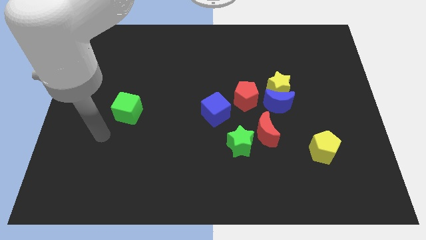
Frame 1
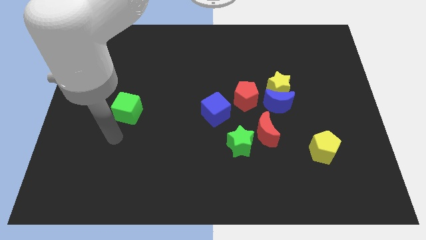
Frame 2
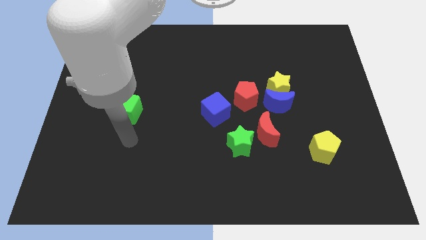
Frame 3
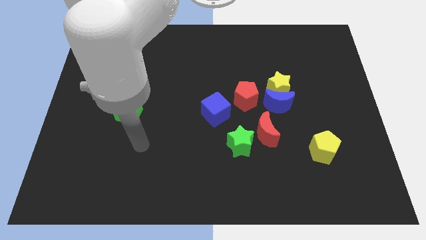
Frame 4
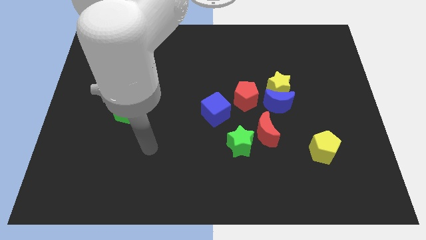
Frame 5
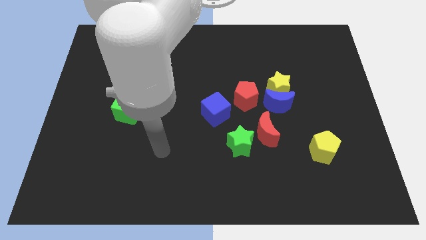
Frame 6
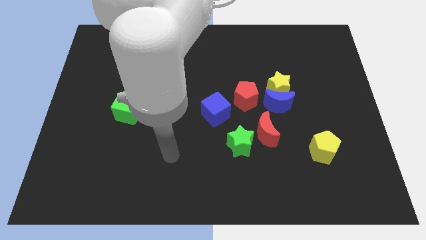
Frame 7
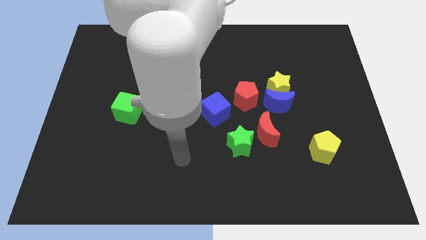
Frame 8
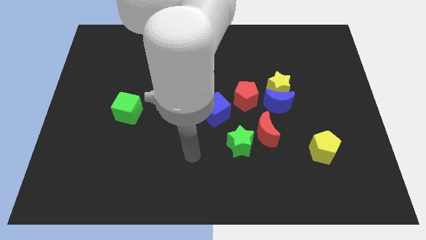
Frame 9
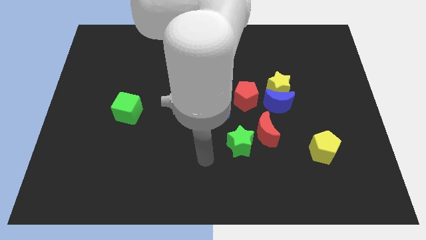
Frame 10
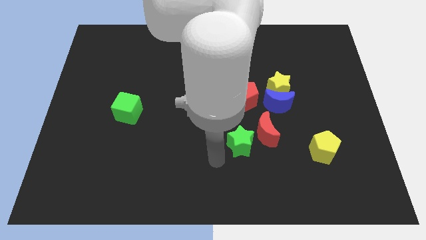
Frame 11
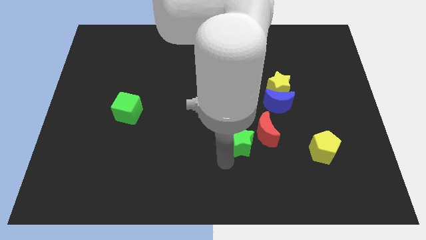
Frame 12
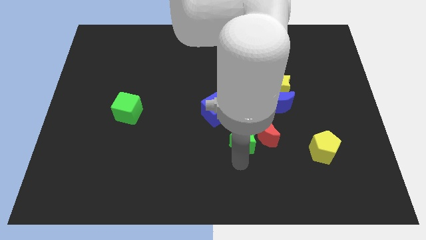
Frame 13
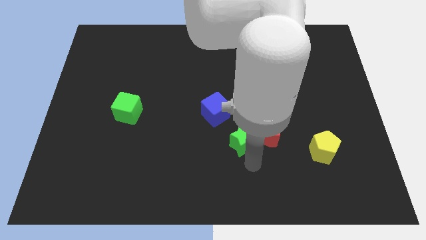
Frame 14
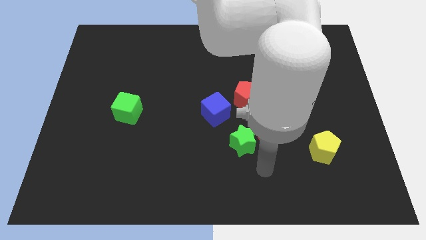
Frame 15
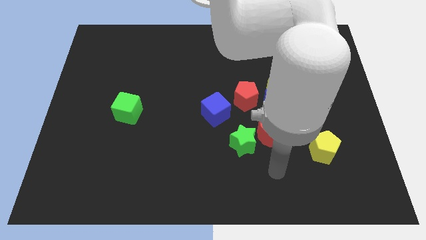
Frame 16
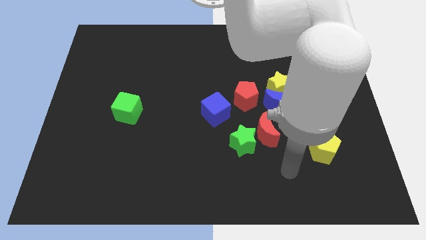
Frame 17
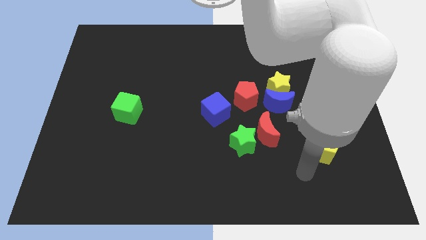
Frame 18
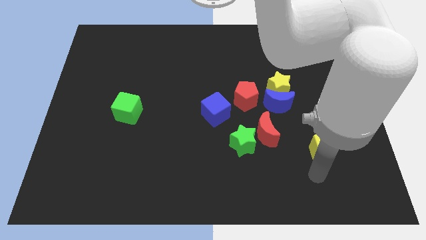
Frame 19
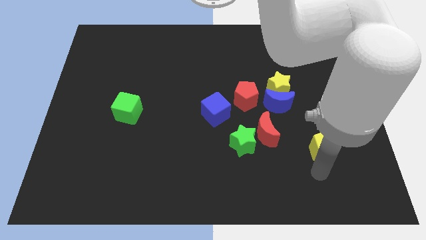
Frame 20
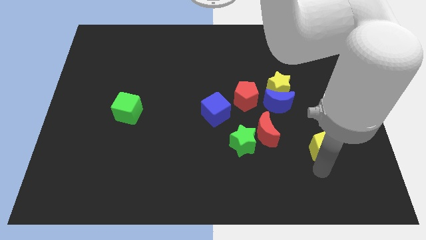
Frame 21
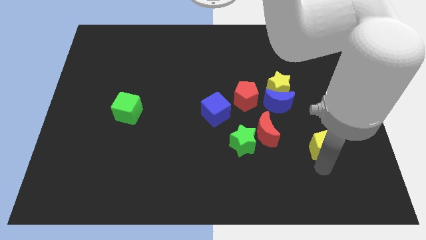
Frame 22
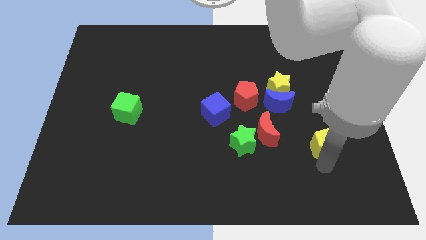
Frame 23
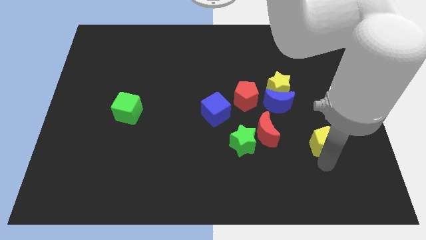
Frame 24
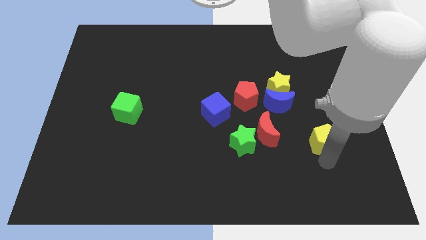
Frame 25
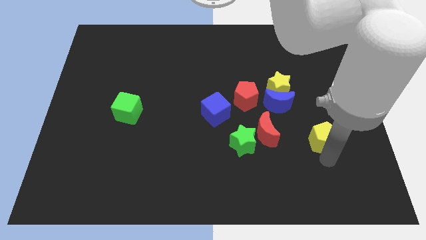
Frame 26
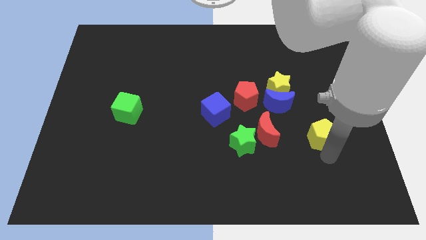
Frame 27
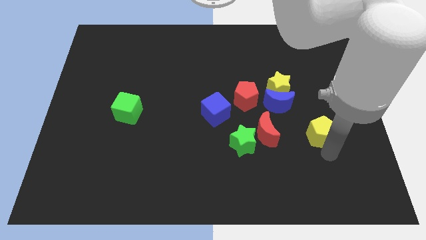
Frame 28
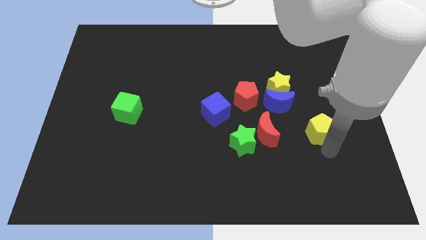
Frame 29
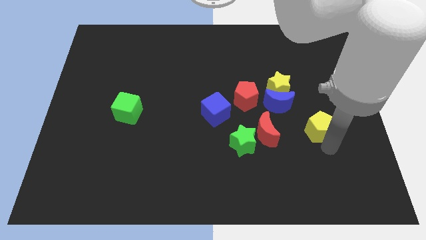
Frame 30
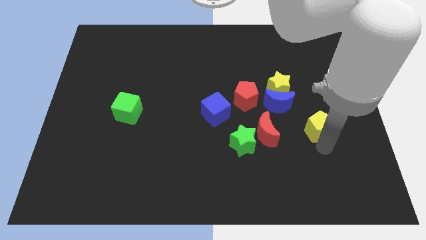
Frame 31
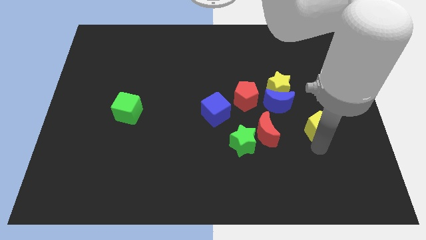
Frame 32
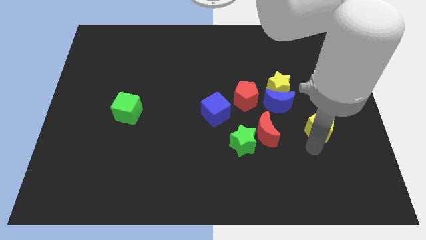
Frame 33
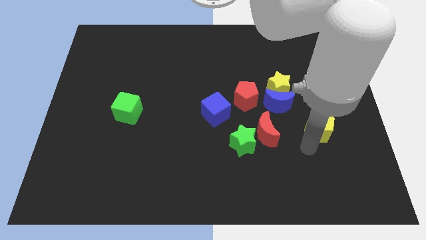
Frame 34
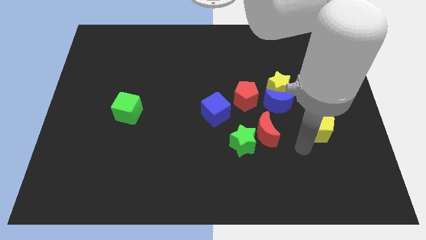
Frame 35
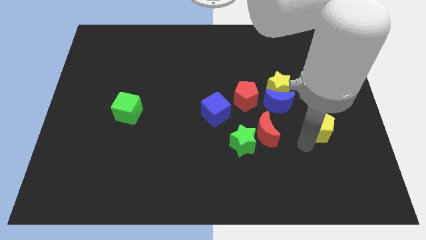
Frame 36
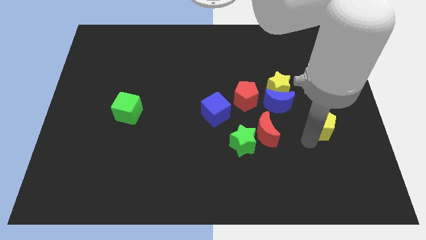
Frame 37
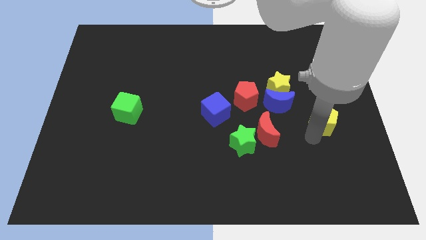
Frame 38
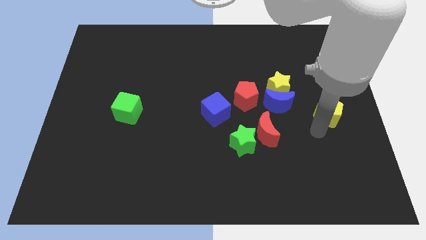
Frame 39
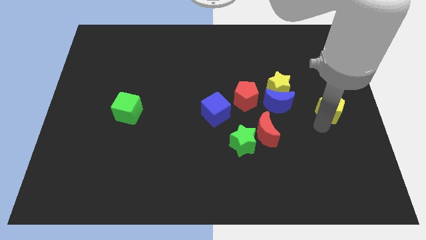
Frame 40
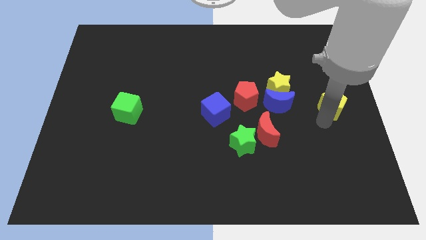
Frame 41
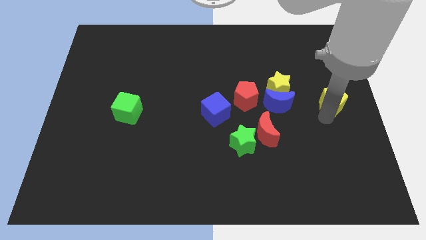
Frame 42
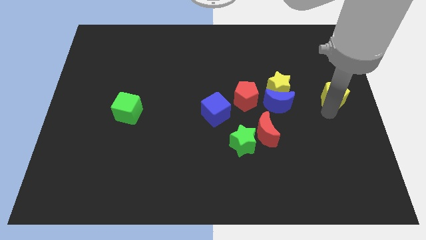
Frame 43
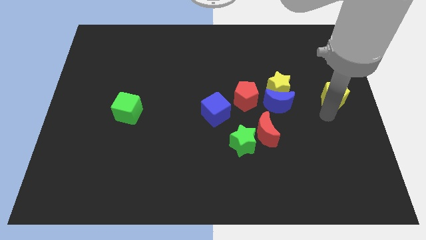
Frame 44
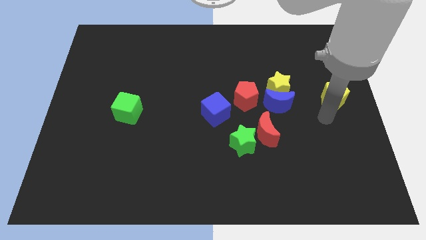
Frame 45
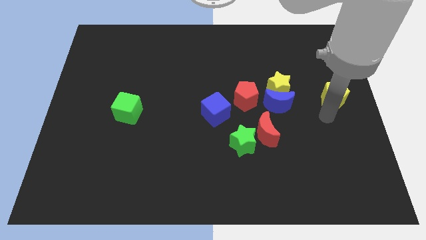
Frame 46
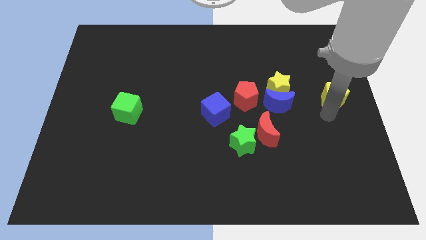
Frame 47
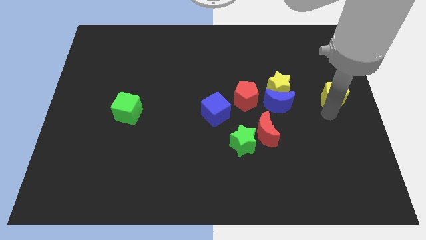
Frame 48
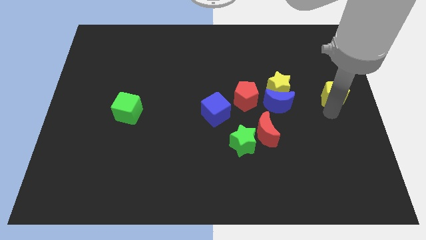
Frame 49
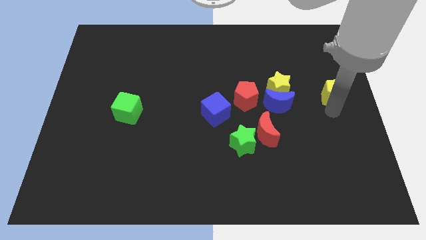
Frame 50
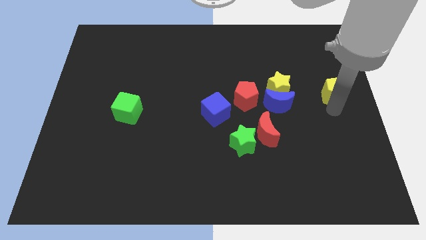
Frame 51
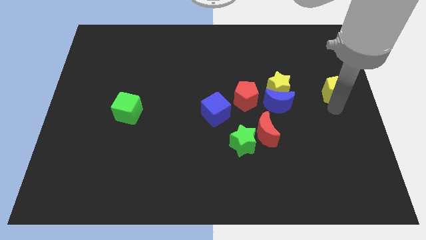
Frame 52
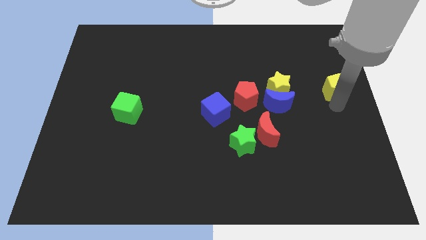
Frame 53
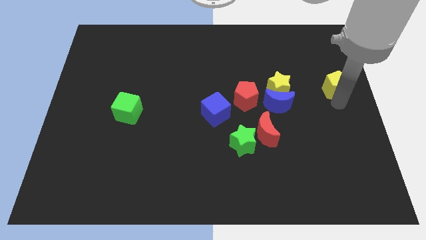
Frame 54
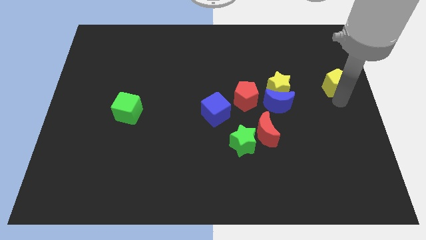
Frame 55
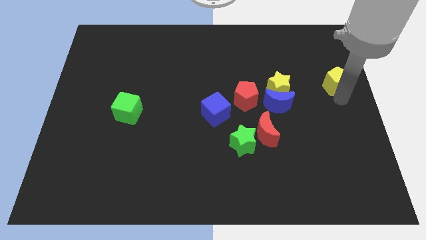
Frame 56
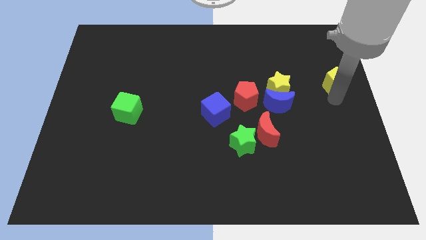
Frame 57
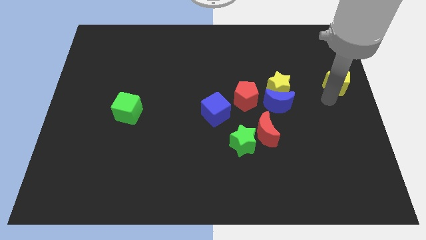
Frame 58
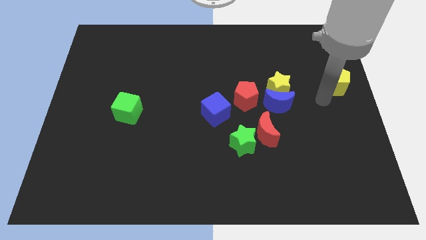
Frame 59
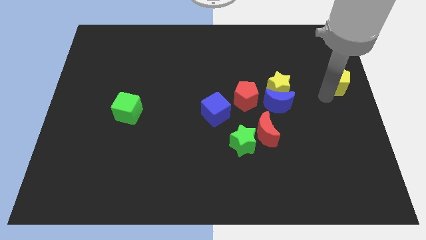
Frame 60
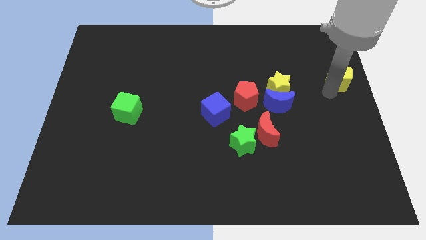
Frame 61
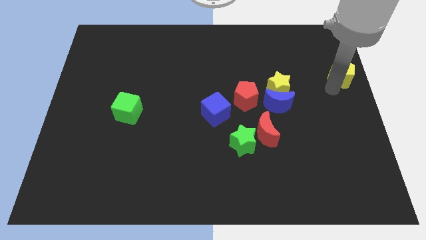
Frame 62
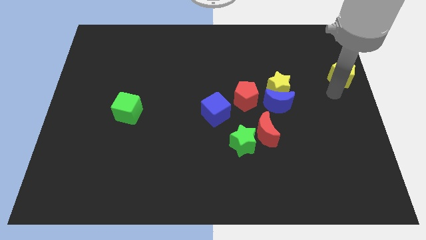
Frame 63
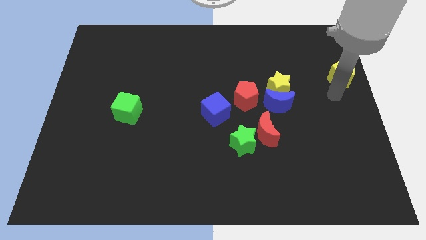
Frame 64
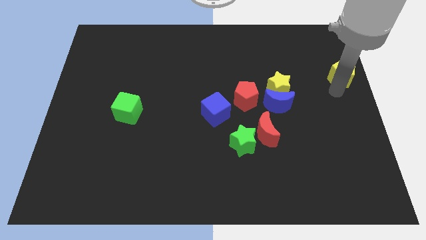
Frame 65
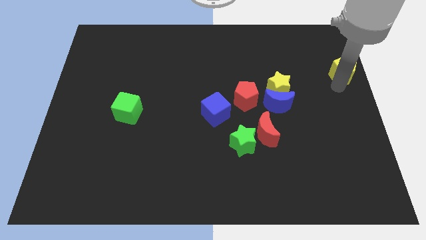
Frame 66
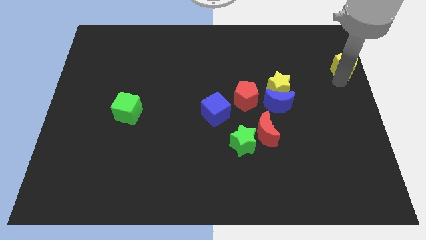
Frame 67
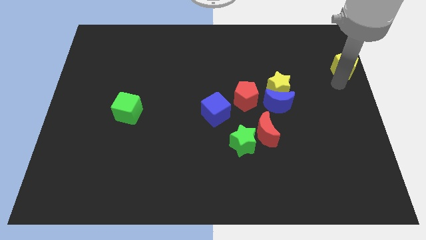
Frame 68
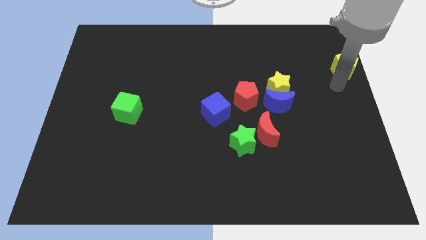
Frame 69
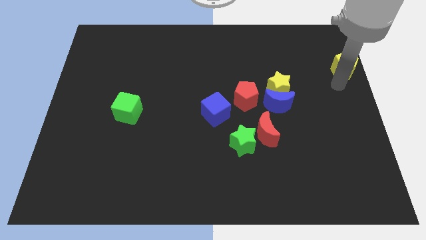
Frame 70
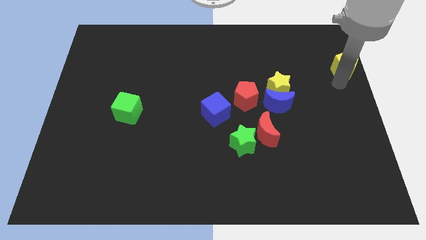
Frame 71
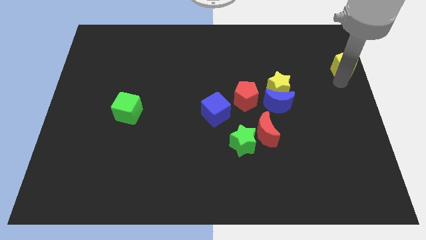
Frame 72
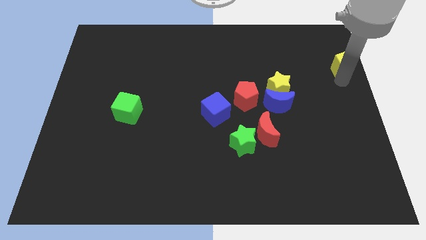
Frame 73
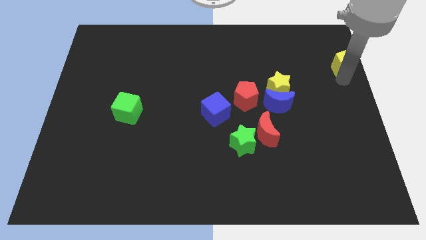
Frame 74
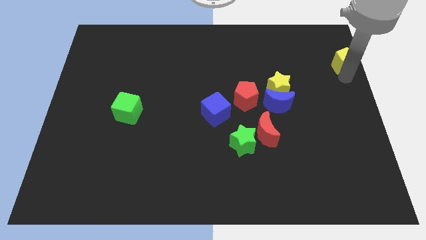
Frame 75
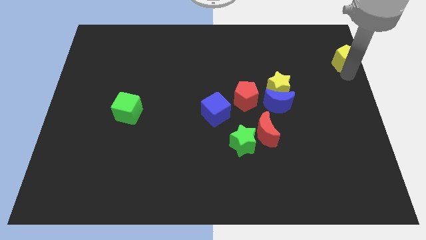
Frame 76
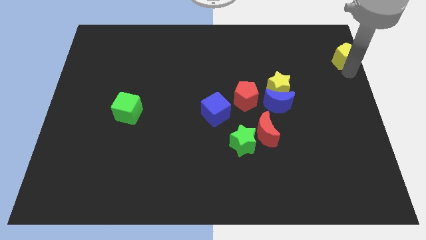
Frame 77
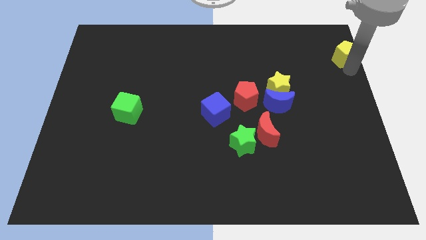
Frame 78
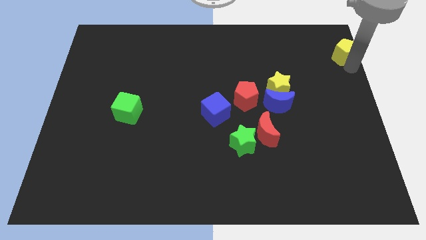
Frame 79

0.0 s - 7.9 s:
move the yellow pentagon to the top right
